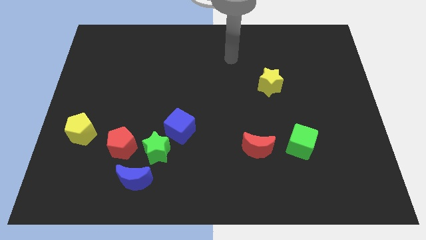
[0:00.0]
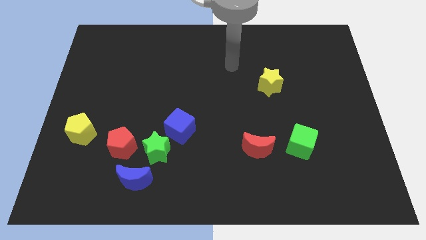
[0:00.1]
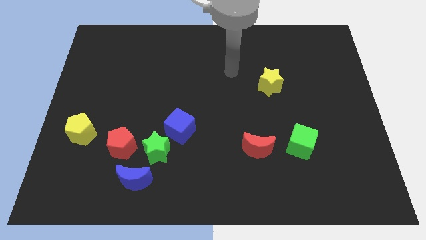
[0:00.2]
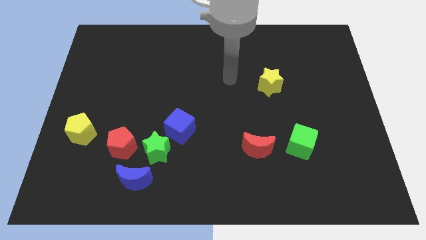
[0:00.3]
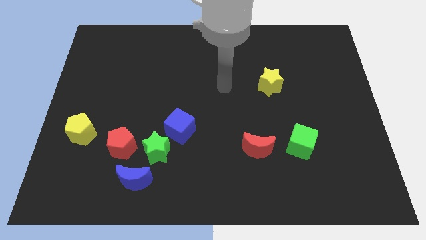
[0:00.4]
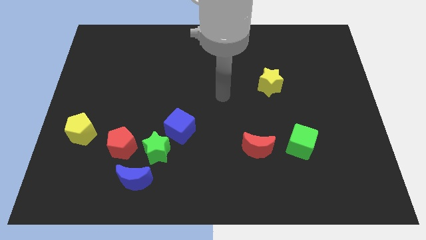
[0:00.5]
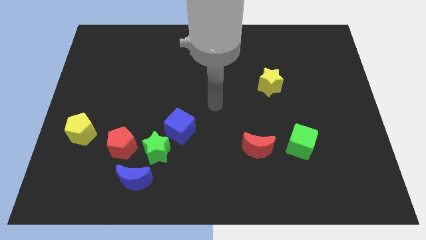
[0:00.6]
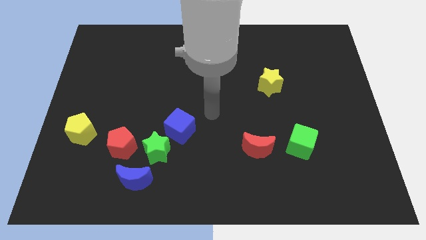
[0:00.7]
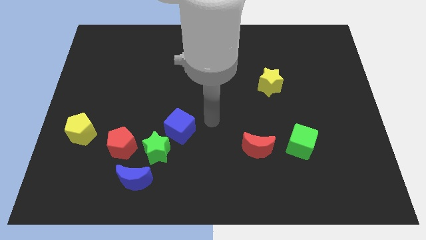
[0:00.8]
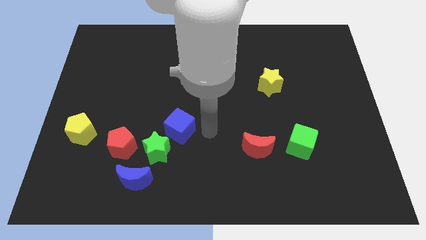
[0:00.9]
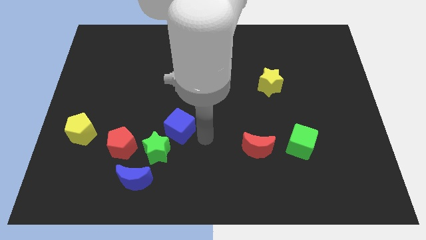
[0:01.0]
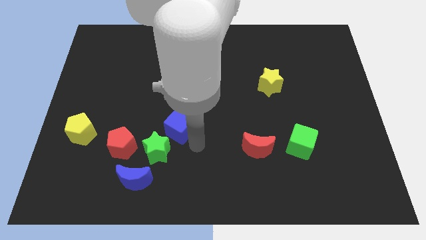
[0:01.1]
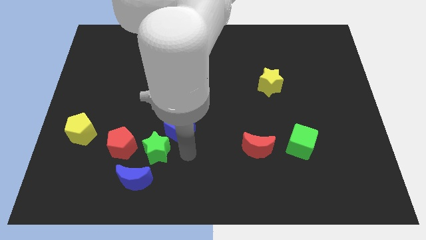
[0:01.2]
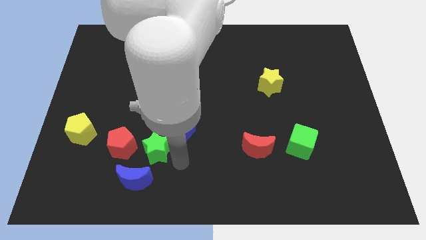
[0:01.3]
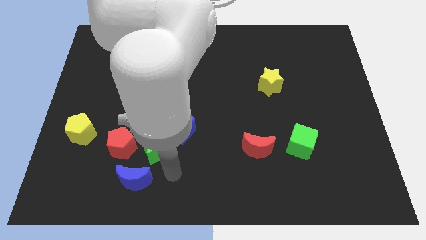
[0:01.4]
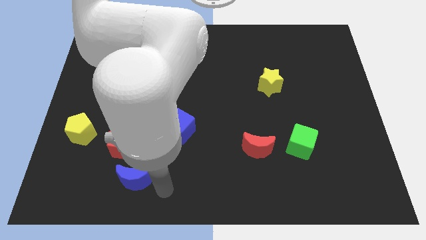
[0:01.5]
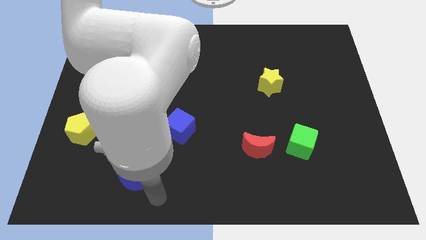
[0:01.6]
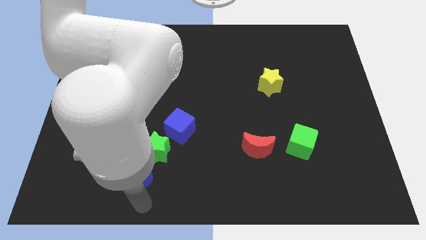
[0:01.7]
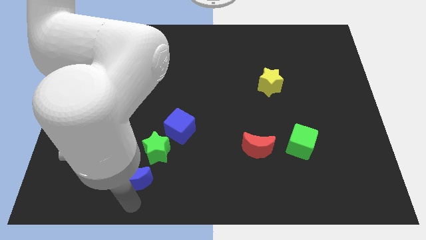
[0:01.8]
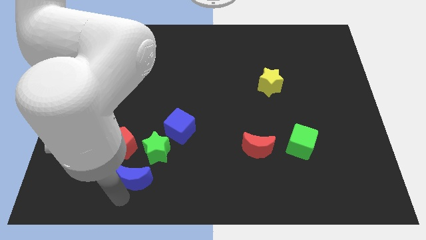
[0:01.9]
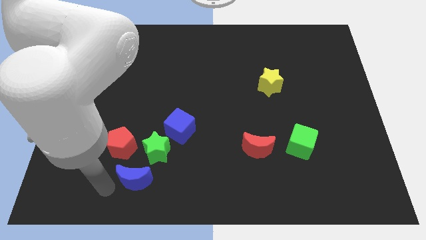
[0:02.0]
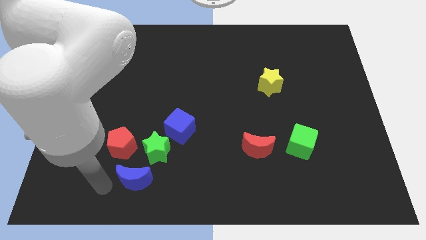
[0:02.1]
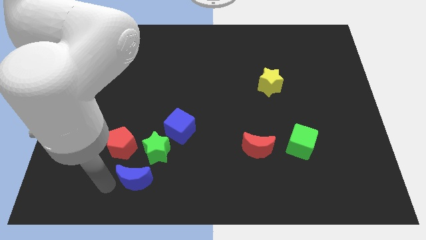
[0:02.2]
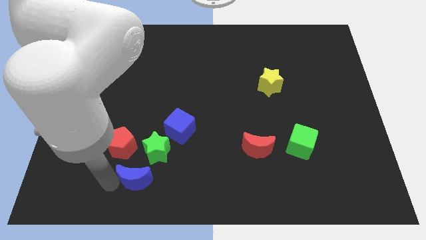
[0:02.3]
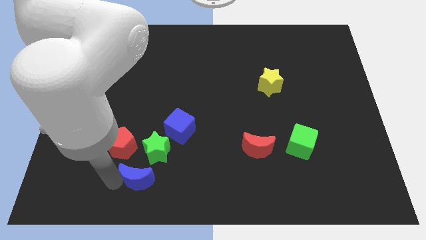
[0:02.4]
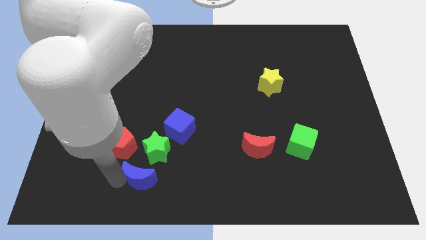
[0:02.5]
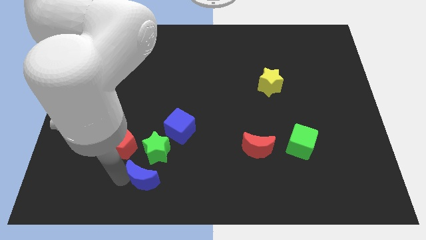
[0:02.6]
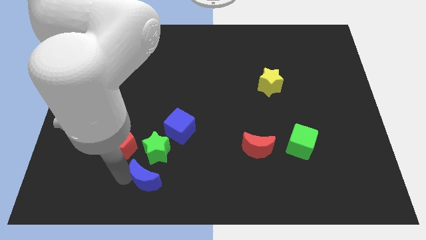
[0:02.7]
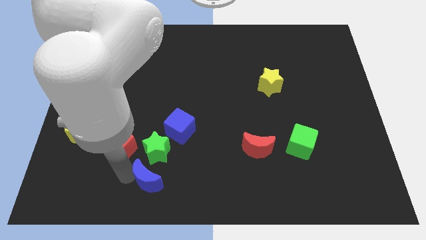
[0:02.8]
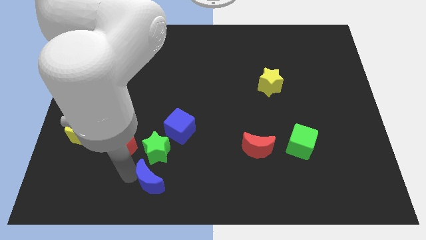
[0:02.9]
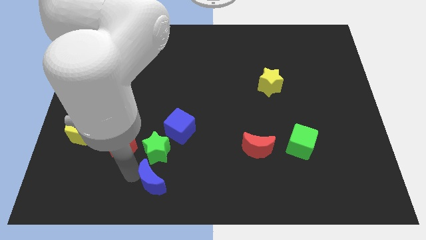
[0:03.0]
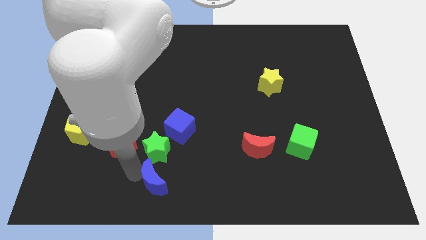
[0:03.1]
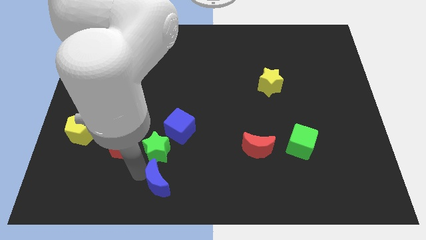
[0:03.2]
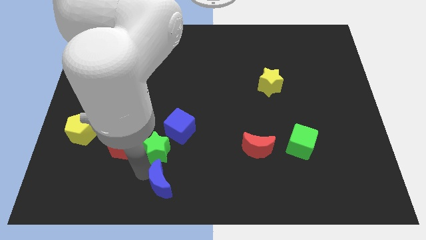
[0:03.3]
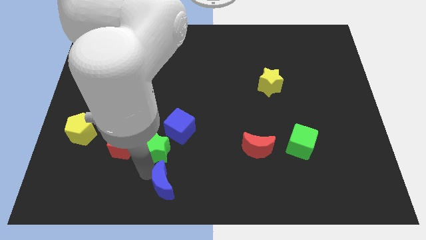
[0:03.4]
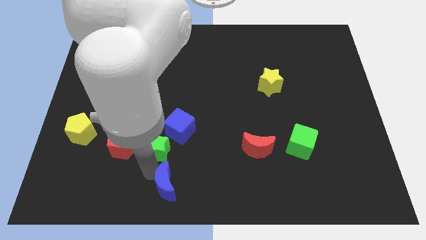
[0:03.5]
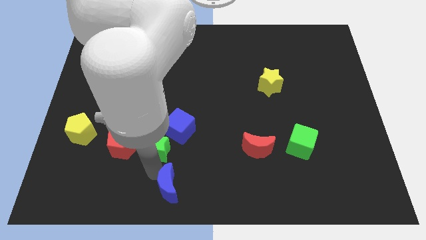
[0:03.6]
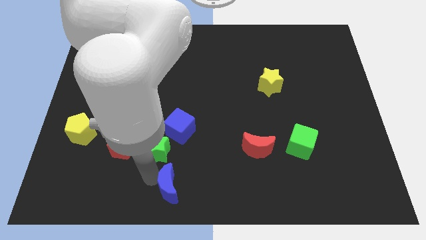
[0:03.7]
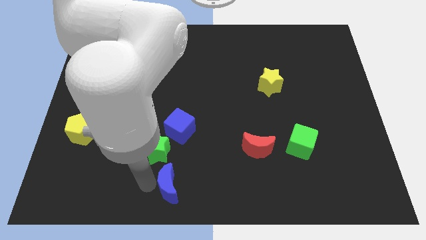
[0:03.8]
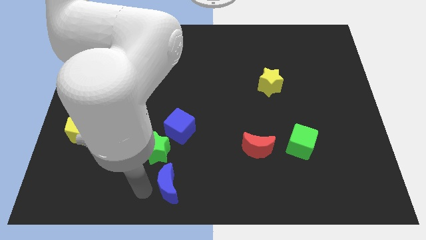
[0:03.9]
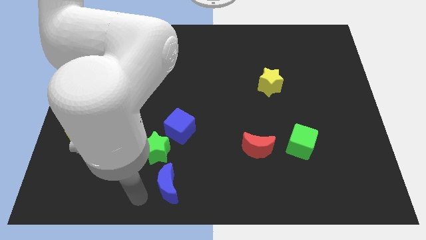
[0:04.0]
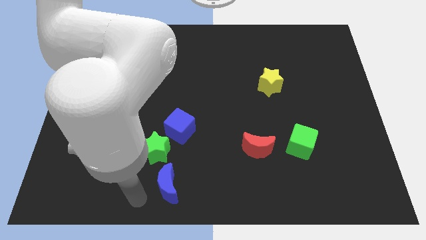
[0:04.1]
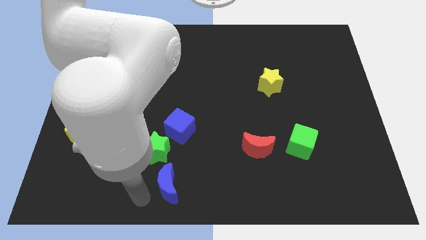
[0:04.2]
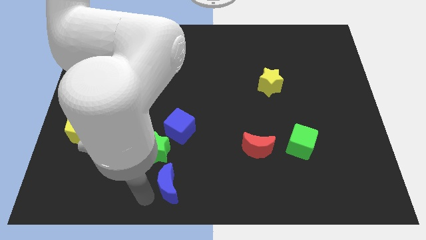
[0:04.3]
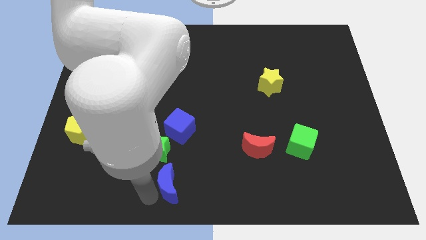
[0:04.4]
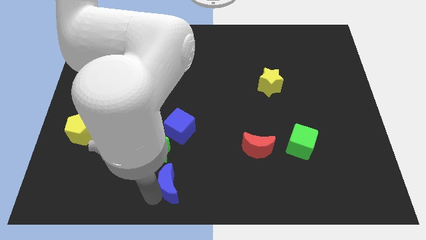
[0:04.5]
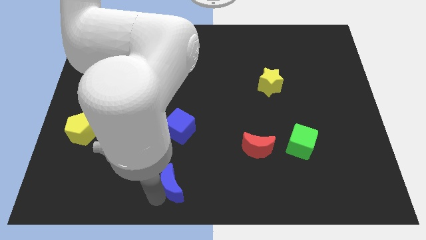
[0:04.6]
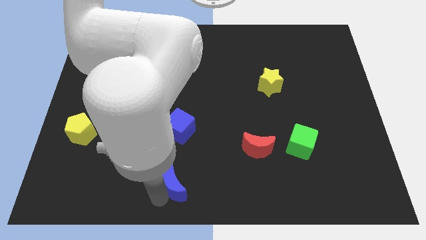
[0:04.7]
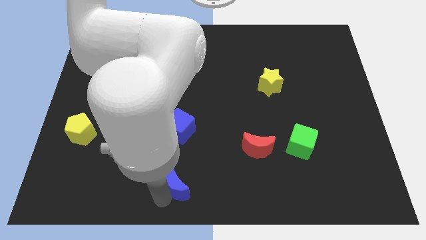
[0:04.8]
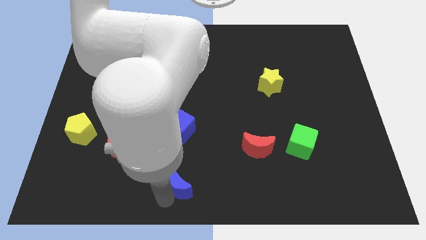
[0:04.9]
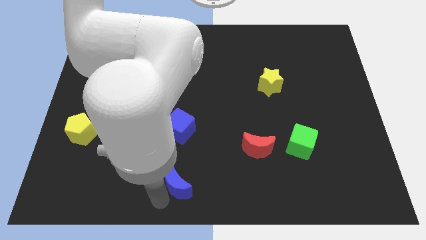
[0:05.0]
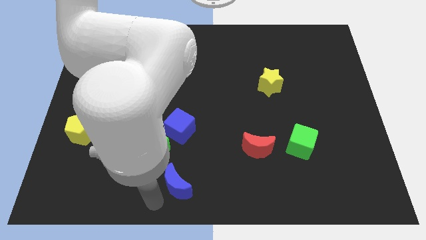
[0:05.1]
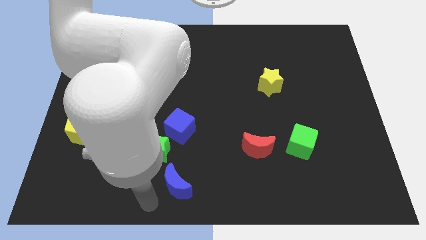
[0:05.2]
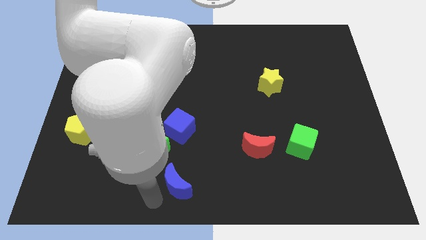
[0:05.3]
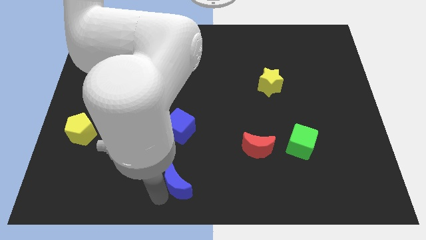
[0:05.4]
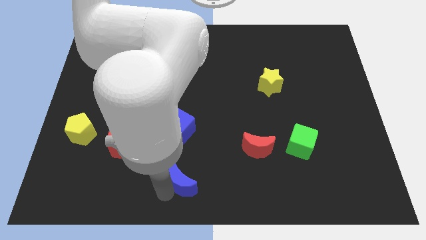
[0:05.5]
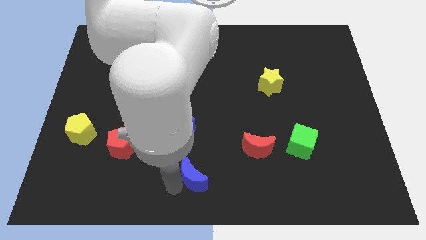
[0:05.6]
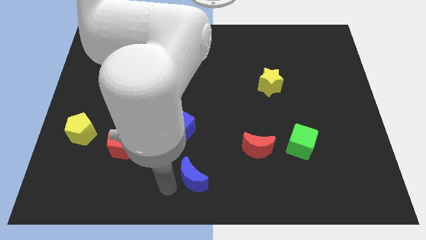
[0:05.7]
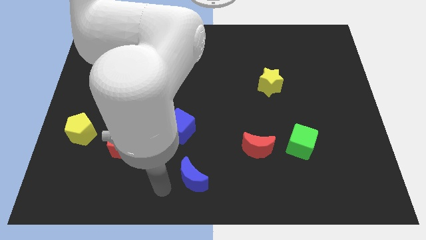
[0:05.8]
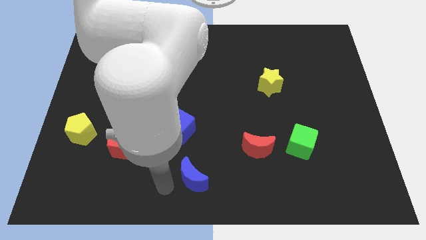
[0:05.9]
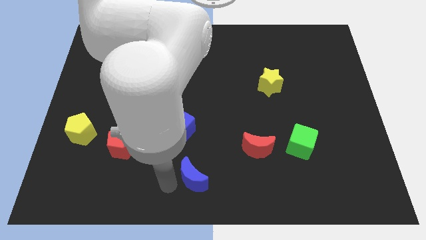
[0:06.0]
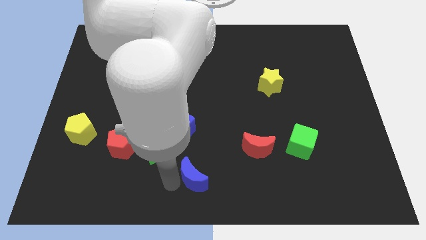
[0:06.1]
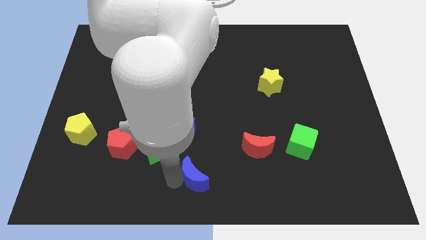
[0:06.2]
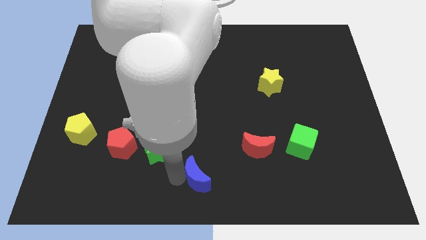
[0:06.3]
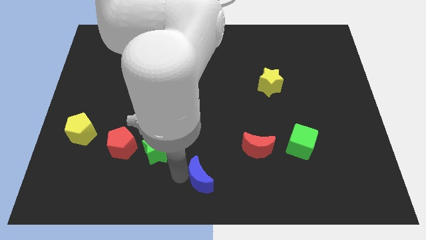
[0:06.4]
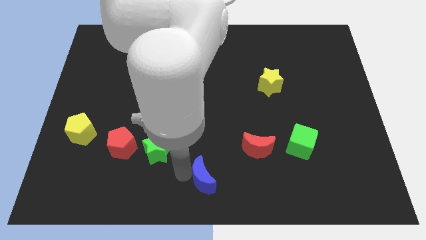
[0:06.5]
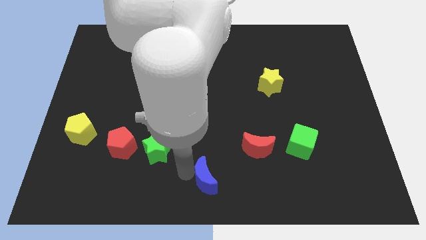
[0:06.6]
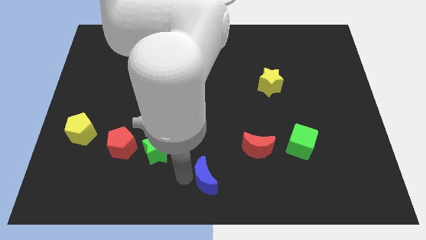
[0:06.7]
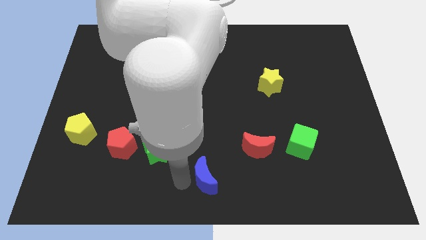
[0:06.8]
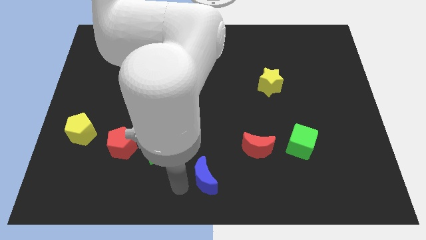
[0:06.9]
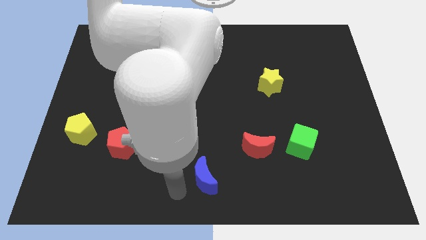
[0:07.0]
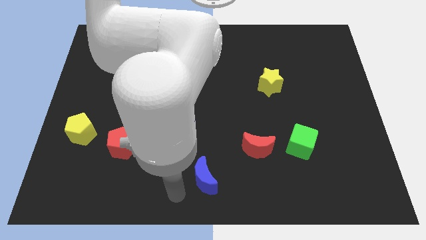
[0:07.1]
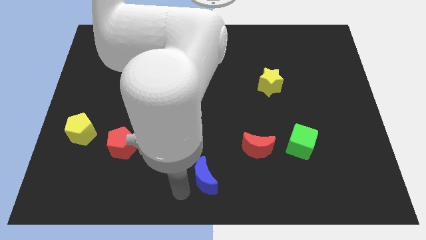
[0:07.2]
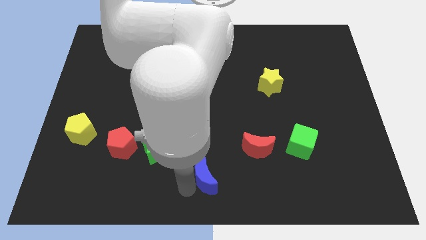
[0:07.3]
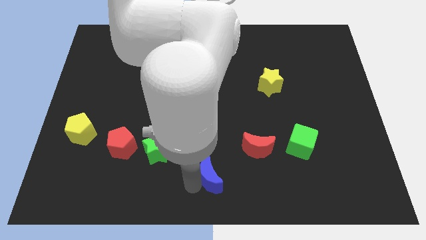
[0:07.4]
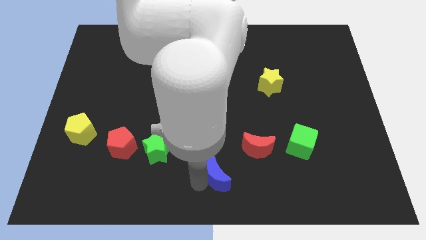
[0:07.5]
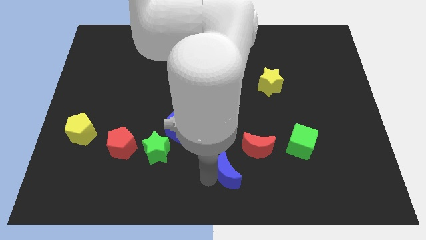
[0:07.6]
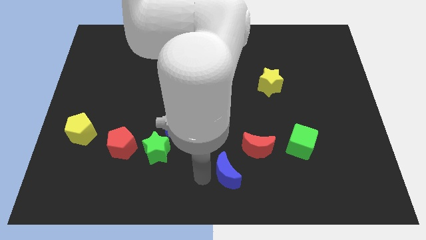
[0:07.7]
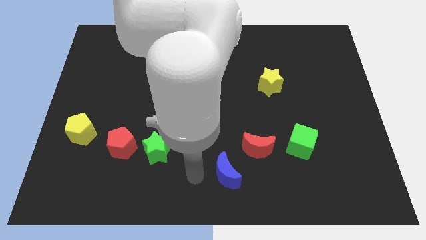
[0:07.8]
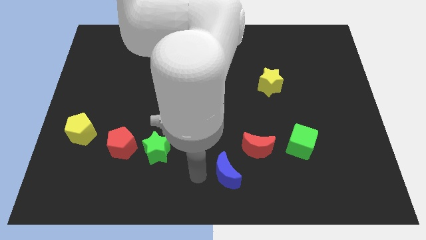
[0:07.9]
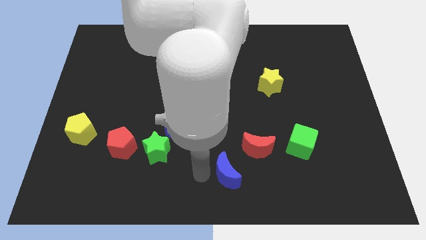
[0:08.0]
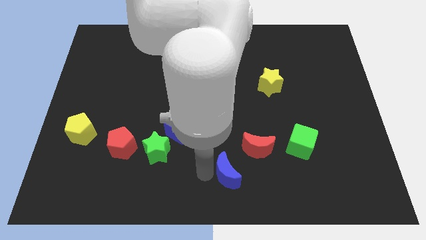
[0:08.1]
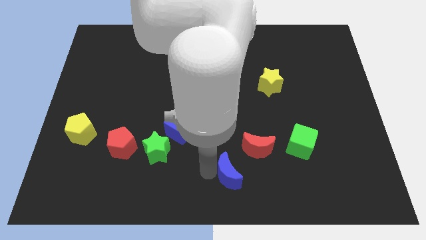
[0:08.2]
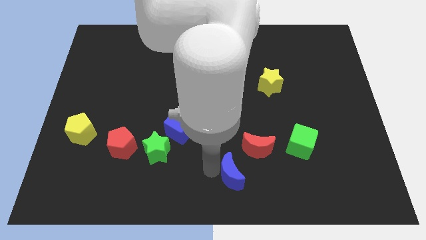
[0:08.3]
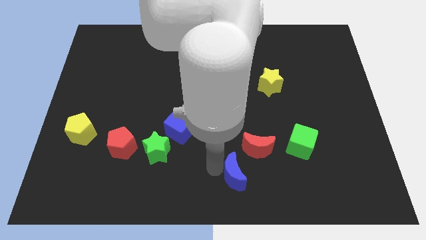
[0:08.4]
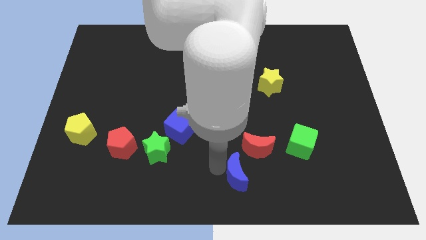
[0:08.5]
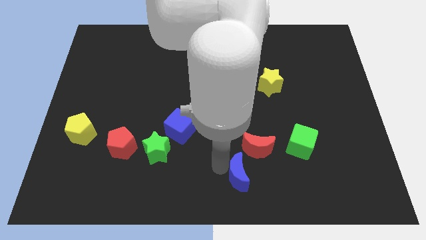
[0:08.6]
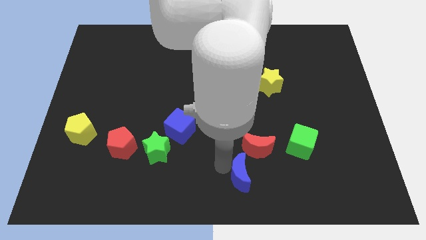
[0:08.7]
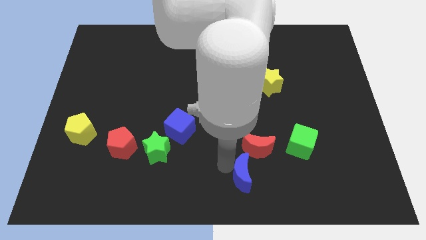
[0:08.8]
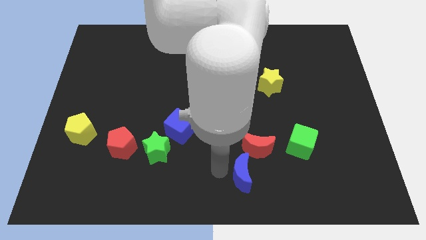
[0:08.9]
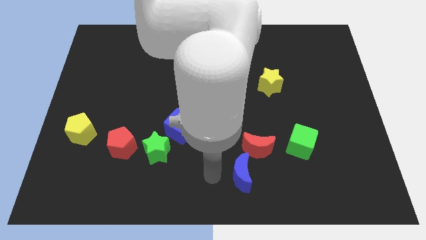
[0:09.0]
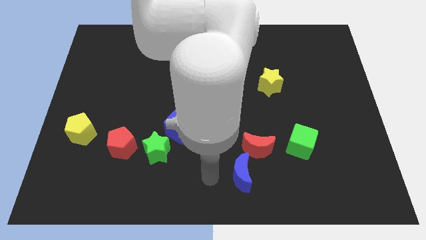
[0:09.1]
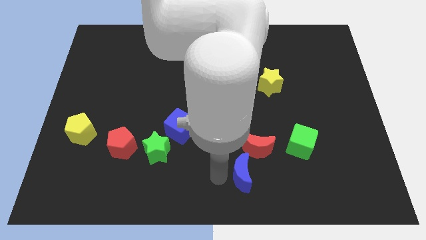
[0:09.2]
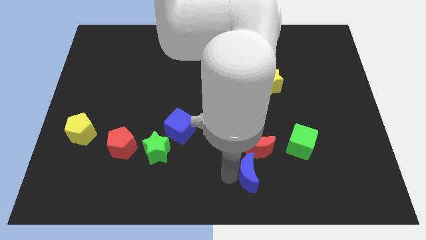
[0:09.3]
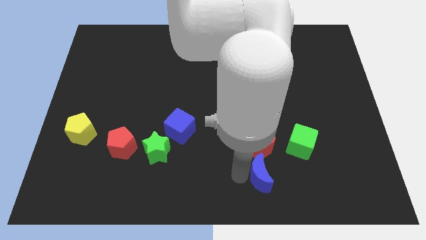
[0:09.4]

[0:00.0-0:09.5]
push the blue moon to the bottom right side of the red moon
